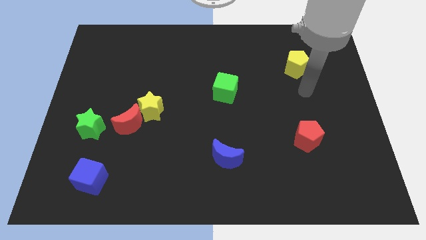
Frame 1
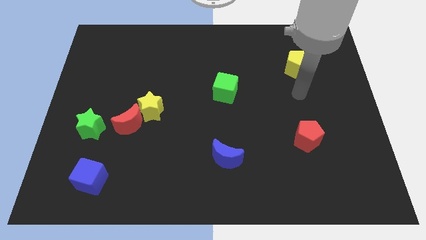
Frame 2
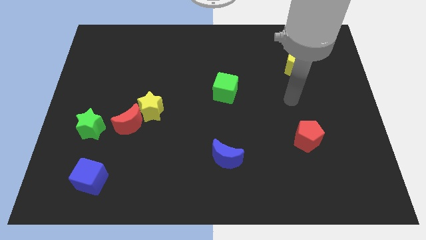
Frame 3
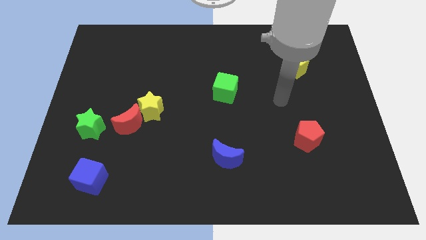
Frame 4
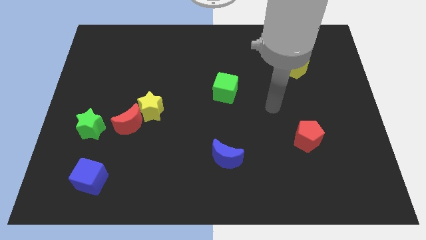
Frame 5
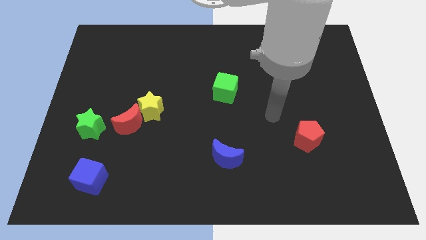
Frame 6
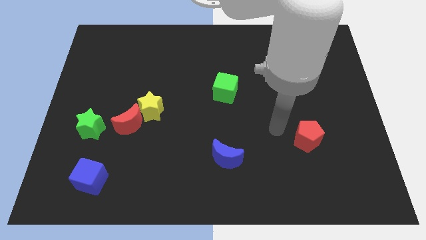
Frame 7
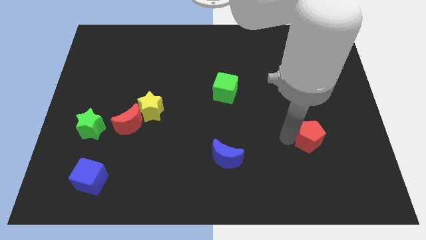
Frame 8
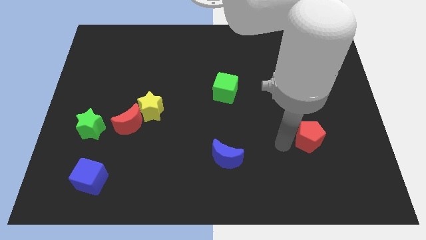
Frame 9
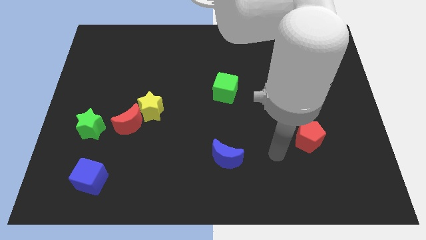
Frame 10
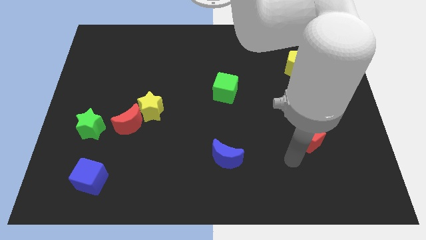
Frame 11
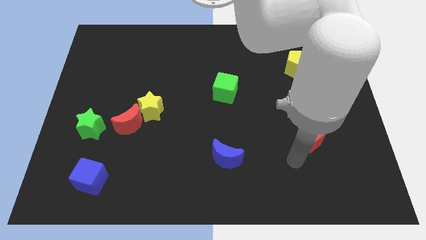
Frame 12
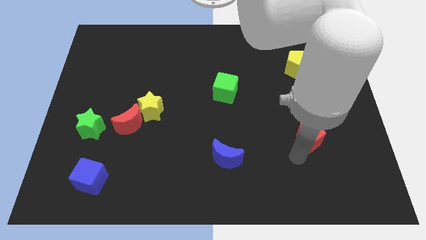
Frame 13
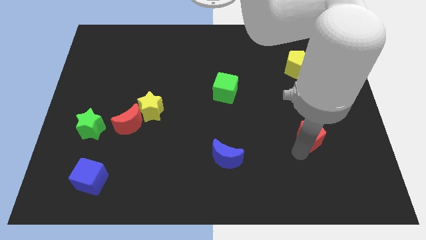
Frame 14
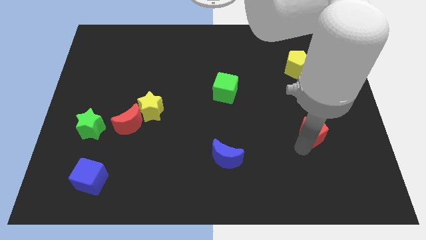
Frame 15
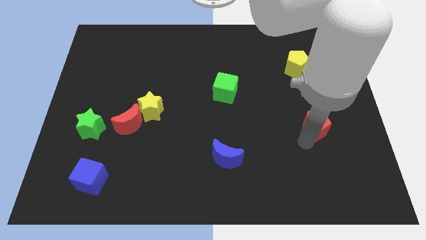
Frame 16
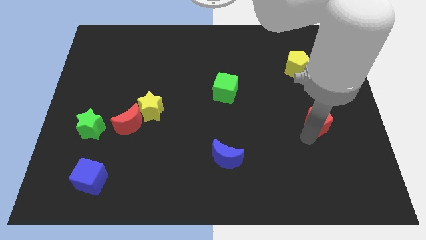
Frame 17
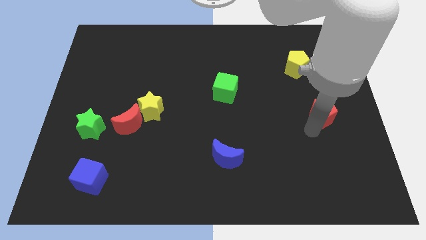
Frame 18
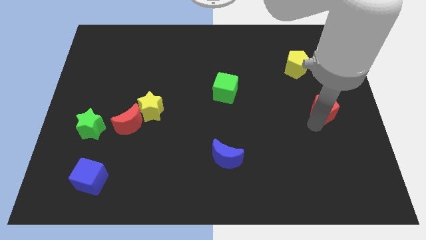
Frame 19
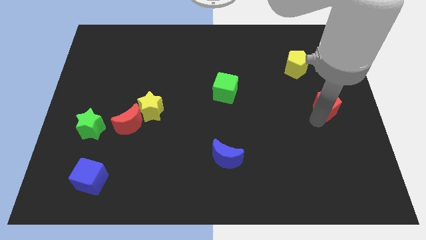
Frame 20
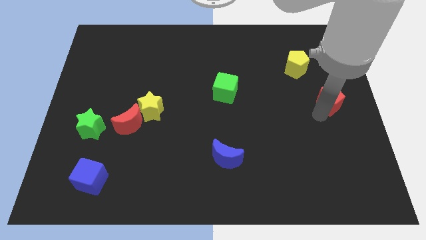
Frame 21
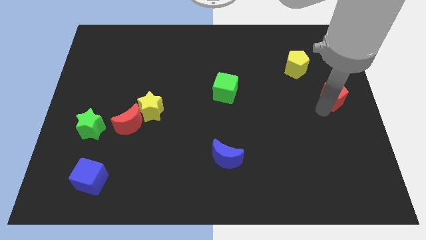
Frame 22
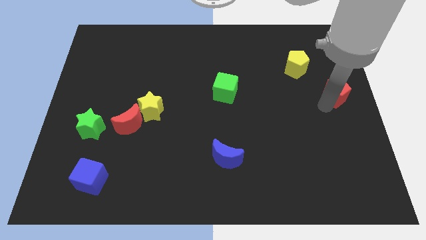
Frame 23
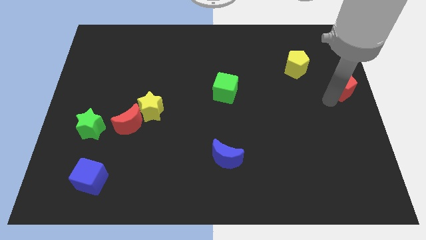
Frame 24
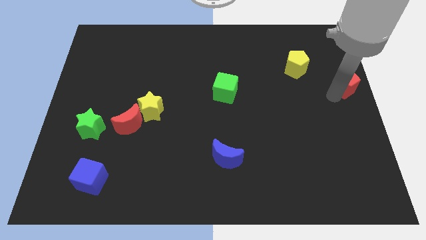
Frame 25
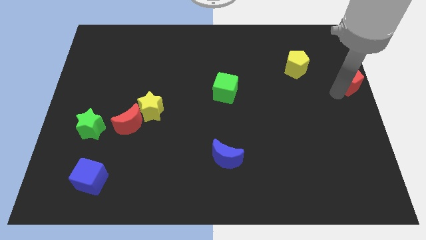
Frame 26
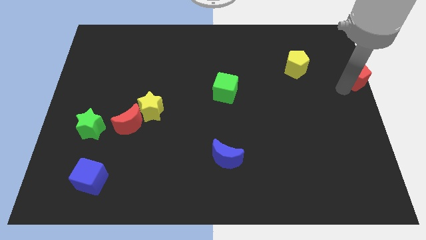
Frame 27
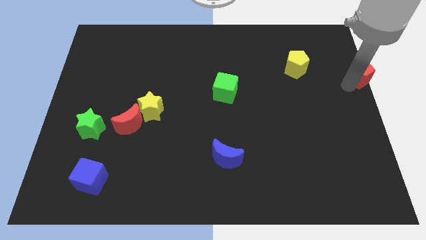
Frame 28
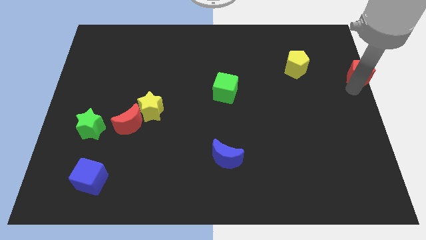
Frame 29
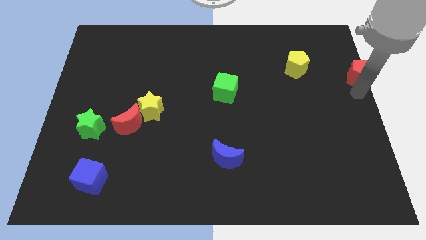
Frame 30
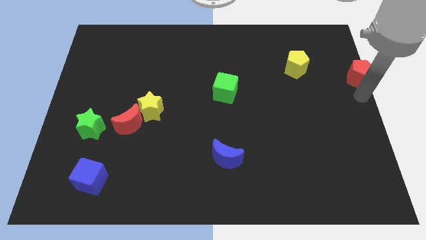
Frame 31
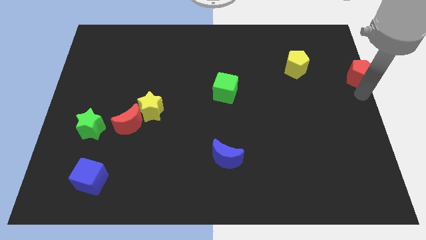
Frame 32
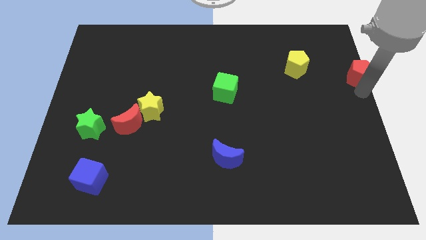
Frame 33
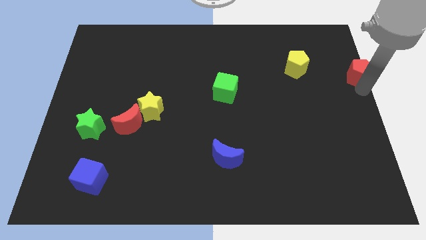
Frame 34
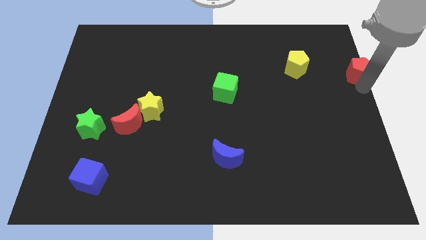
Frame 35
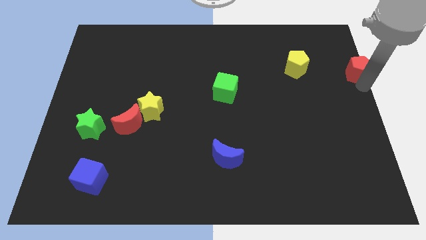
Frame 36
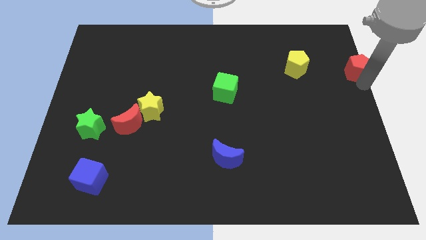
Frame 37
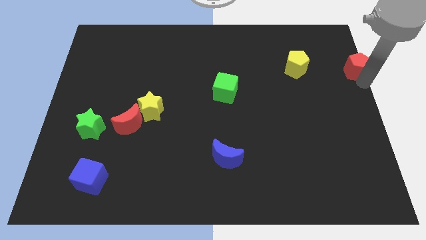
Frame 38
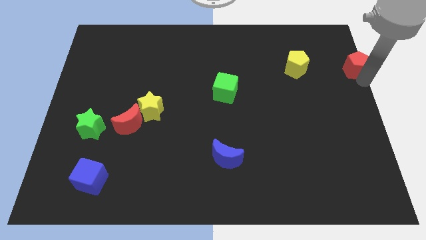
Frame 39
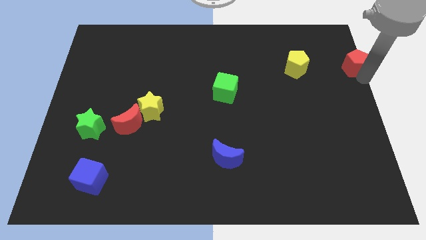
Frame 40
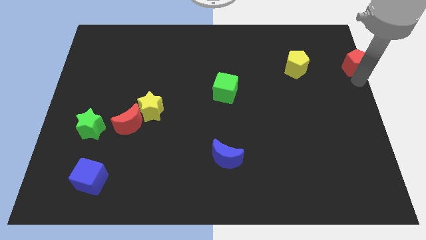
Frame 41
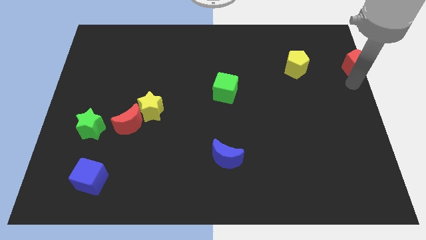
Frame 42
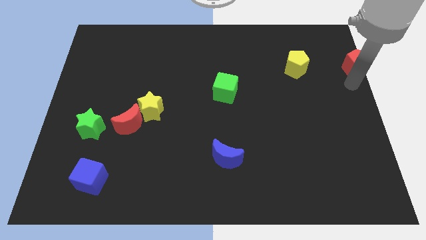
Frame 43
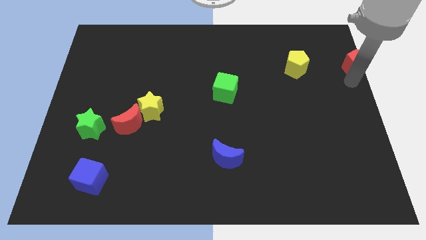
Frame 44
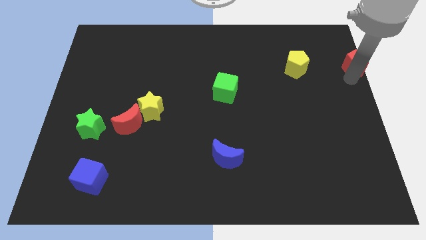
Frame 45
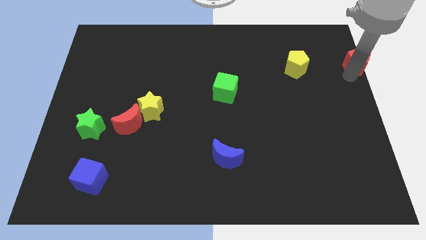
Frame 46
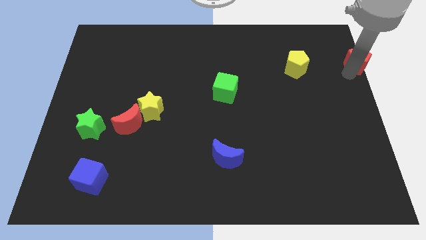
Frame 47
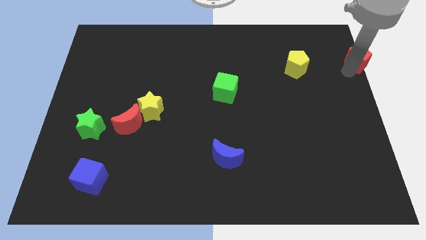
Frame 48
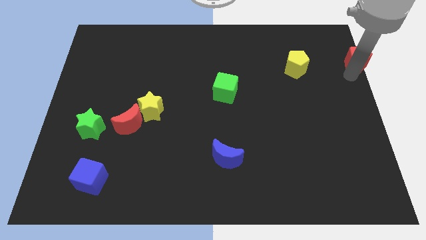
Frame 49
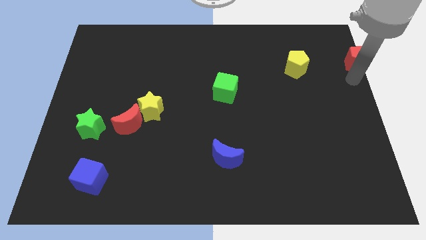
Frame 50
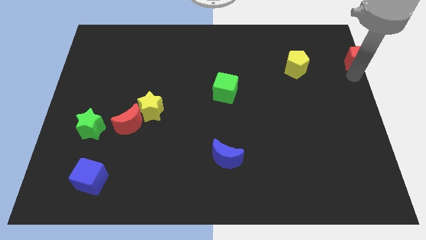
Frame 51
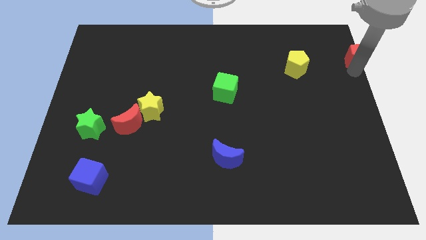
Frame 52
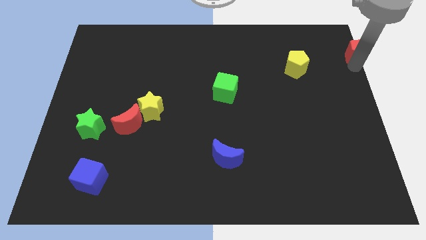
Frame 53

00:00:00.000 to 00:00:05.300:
move the red pentagon to the top right corner

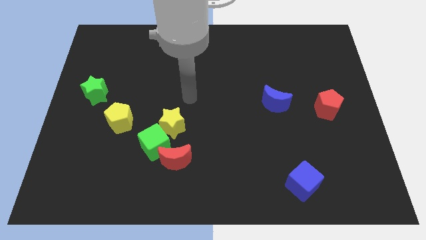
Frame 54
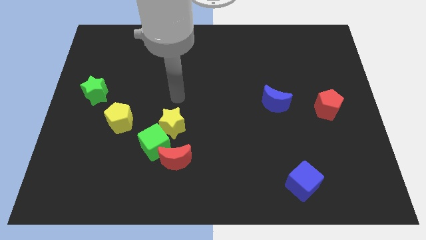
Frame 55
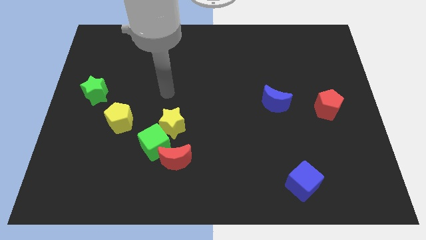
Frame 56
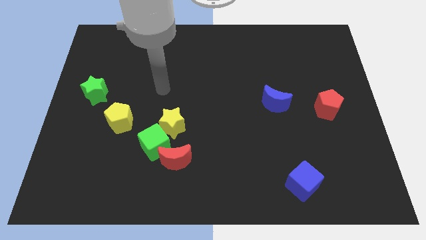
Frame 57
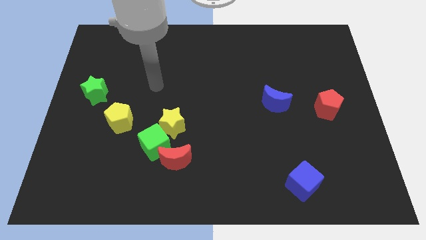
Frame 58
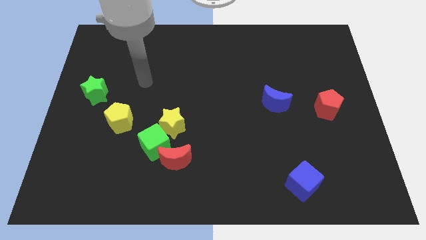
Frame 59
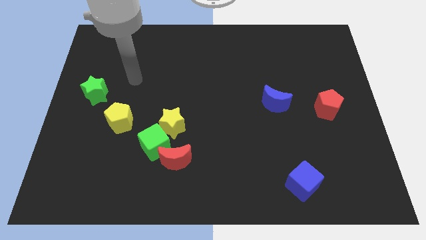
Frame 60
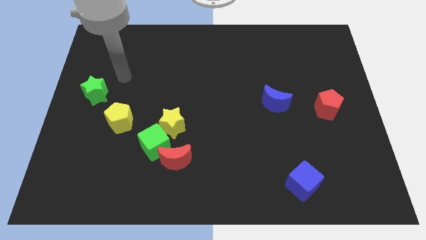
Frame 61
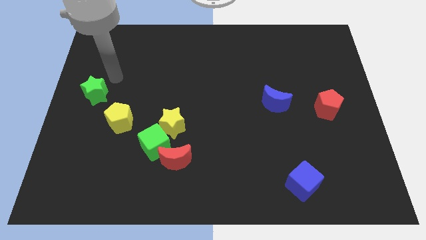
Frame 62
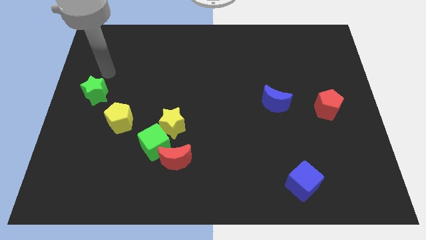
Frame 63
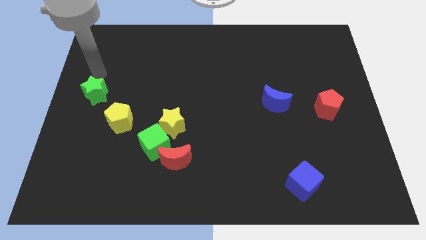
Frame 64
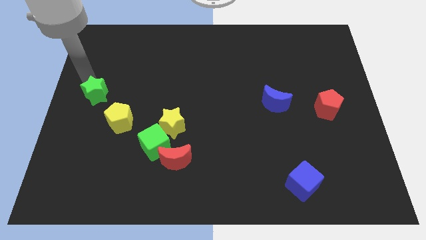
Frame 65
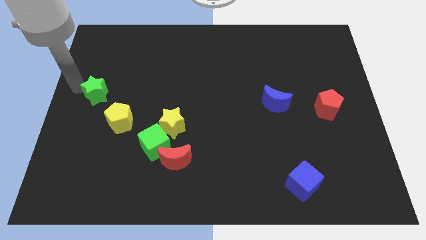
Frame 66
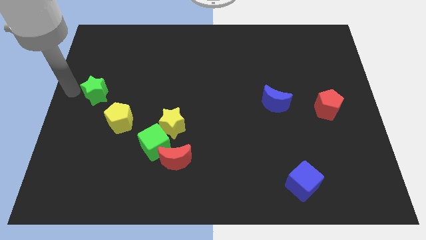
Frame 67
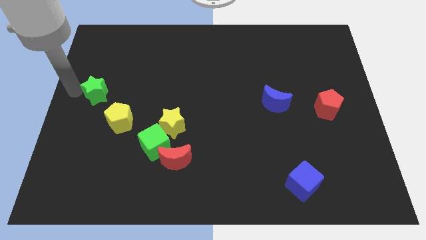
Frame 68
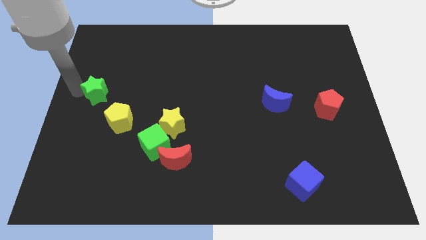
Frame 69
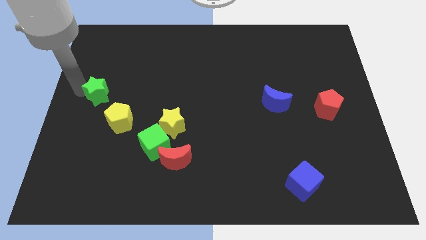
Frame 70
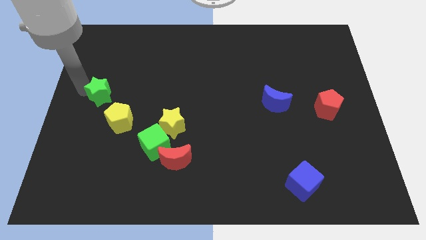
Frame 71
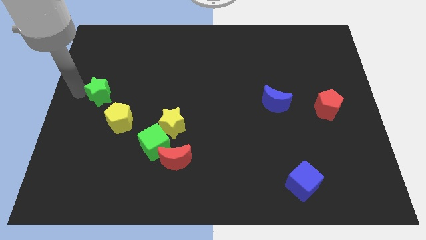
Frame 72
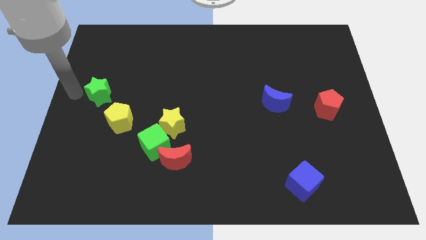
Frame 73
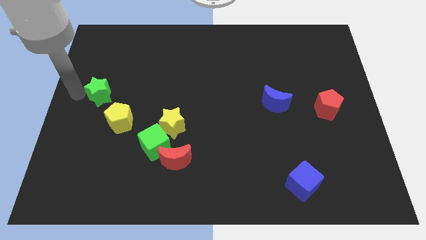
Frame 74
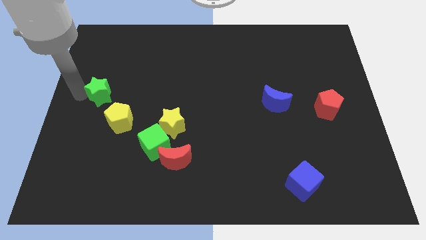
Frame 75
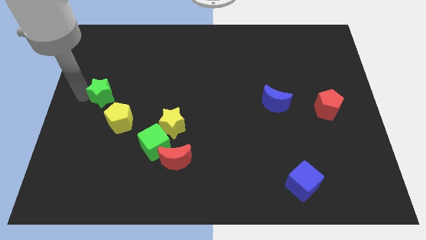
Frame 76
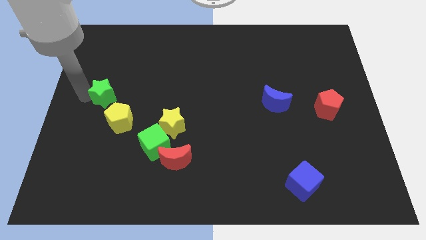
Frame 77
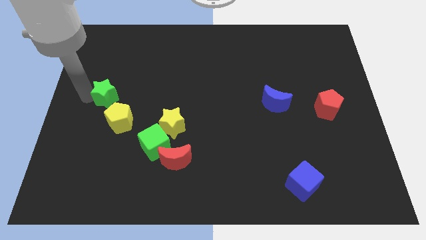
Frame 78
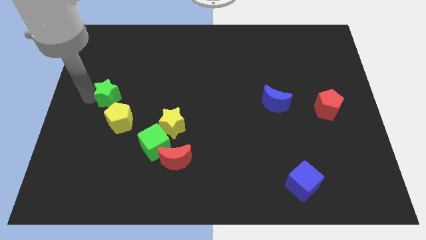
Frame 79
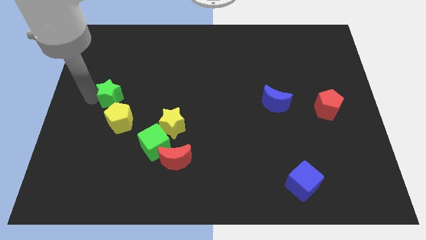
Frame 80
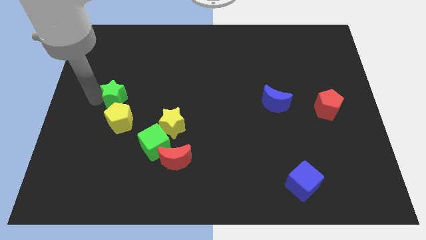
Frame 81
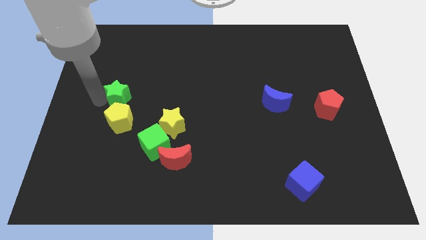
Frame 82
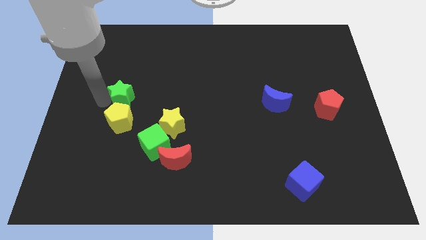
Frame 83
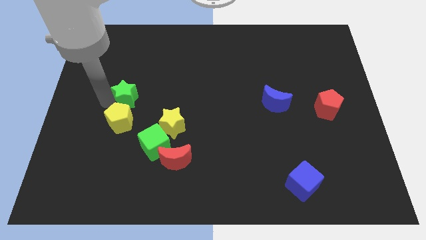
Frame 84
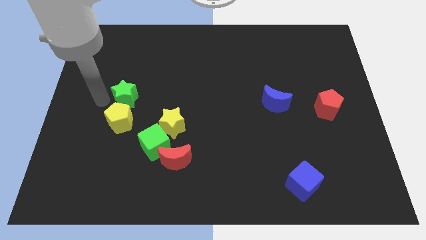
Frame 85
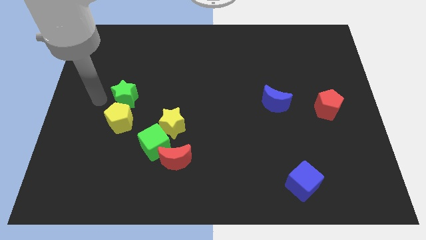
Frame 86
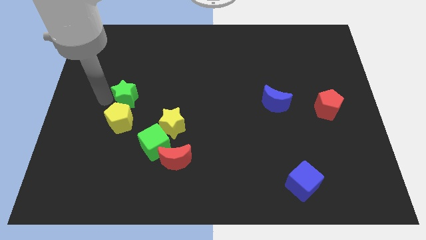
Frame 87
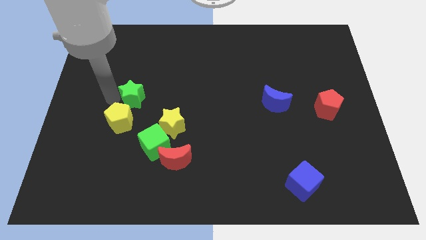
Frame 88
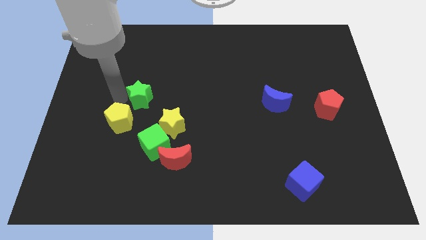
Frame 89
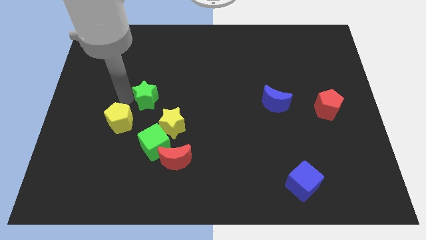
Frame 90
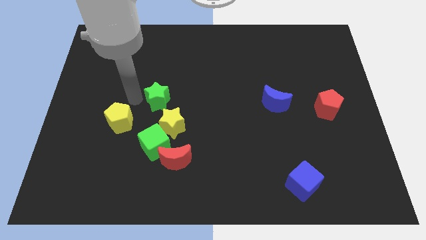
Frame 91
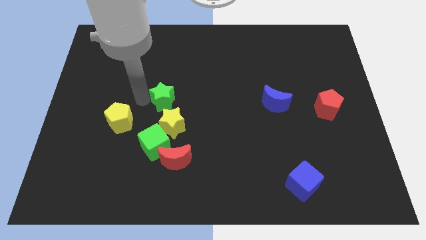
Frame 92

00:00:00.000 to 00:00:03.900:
move the green star to the center of the board
